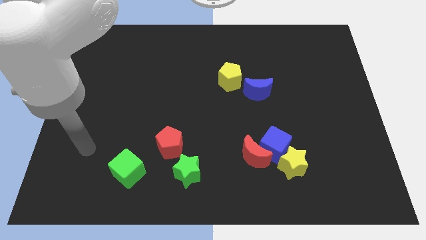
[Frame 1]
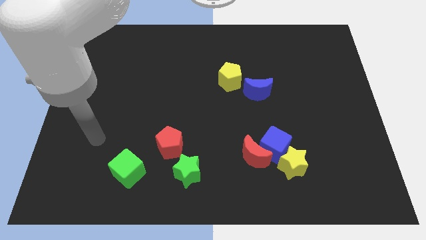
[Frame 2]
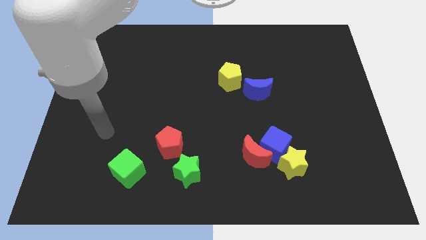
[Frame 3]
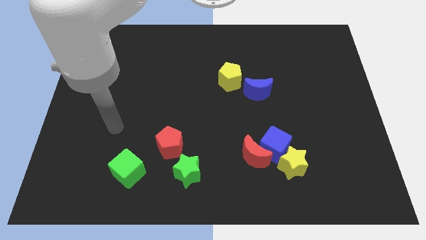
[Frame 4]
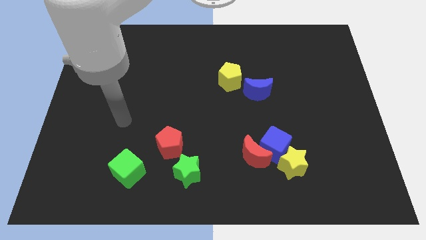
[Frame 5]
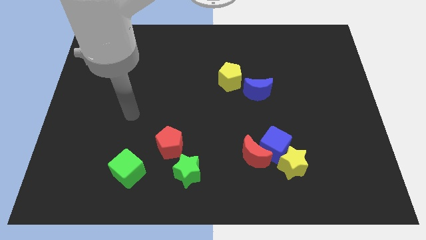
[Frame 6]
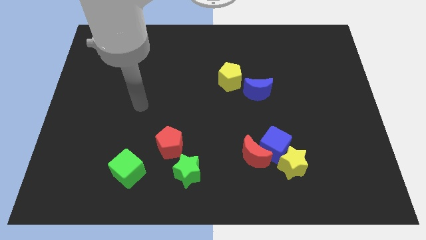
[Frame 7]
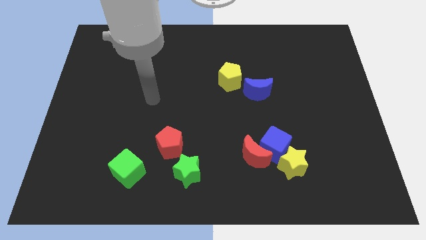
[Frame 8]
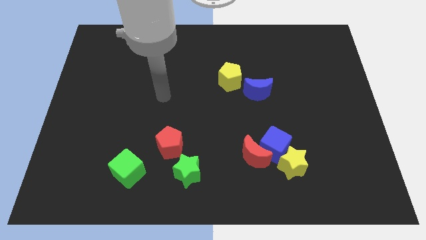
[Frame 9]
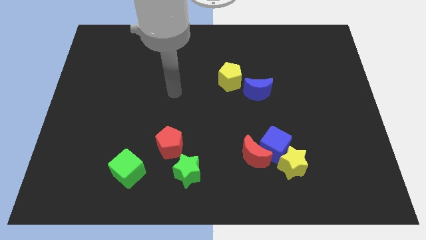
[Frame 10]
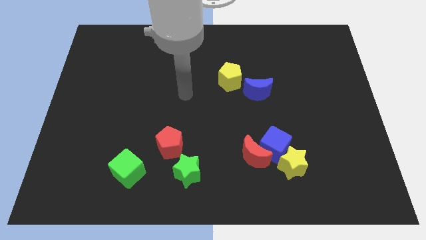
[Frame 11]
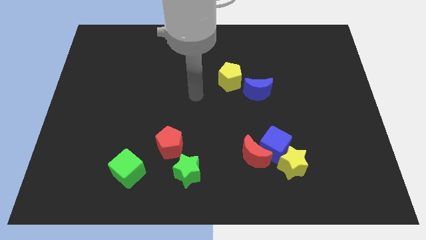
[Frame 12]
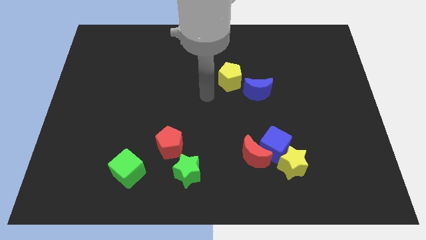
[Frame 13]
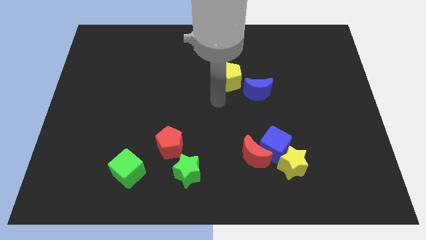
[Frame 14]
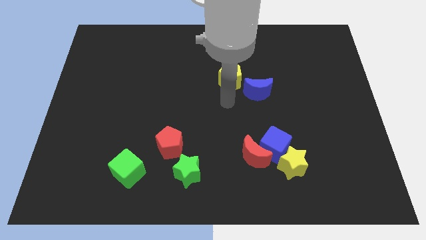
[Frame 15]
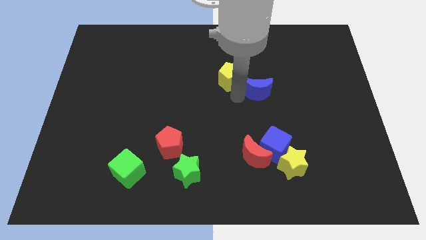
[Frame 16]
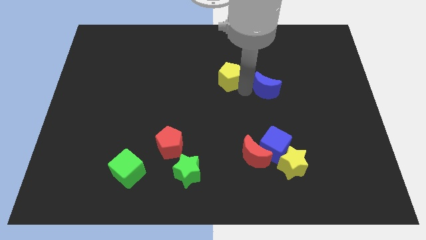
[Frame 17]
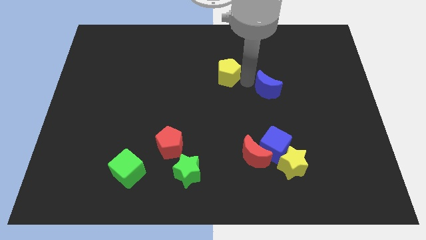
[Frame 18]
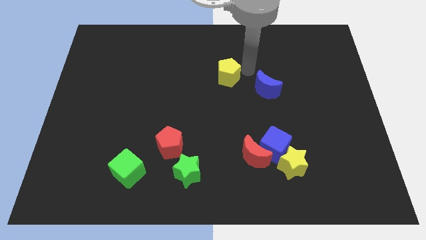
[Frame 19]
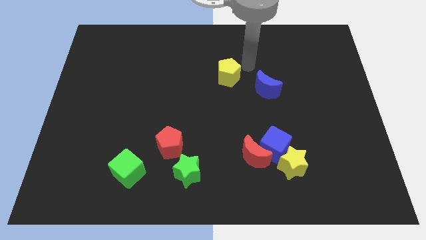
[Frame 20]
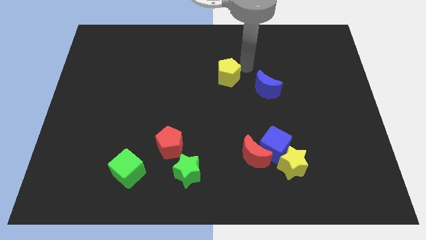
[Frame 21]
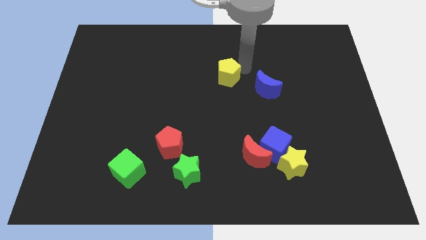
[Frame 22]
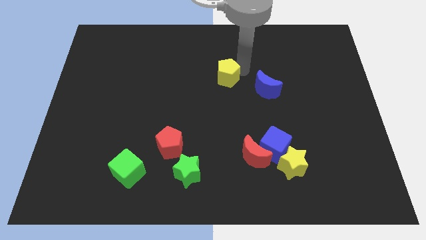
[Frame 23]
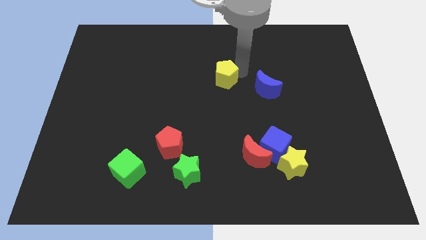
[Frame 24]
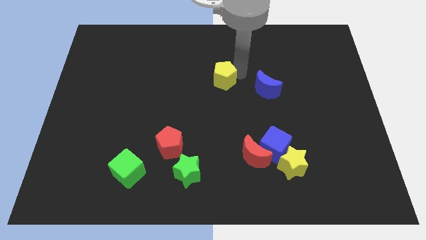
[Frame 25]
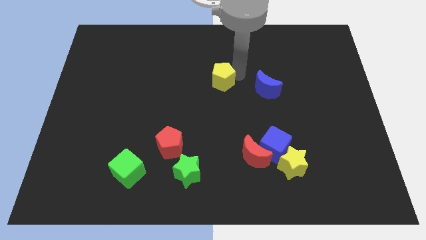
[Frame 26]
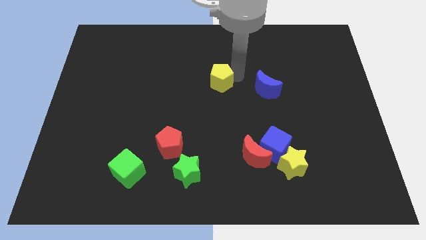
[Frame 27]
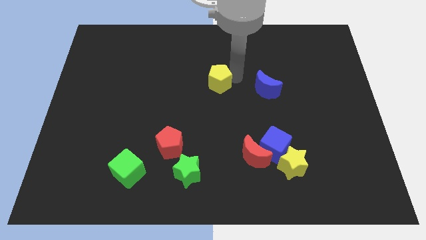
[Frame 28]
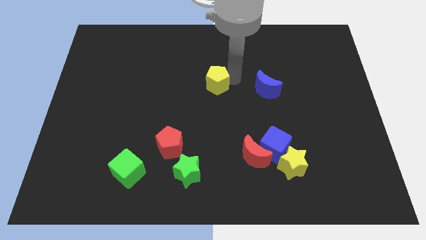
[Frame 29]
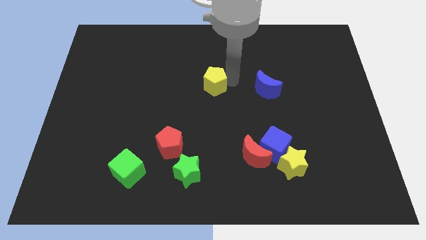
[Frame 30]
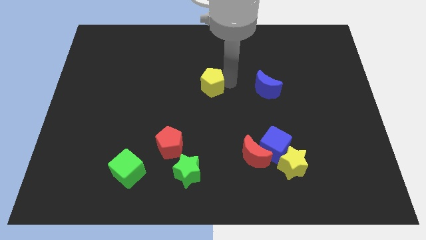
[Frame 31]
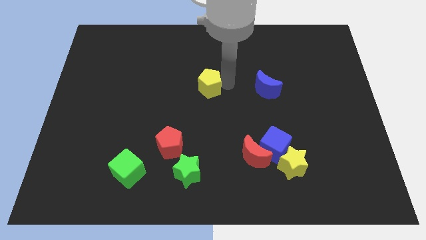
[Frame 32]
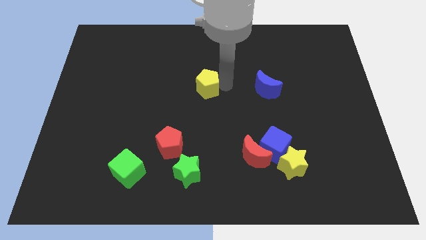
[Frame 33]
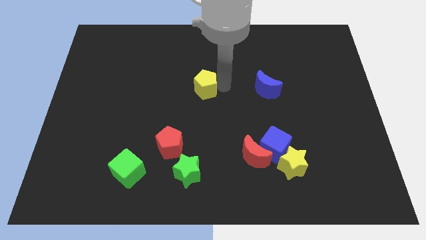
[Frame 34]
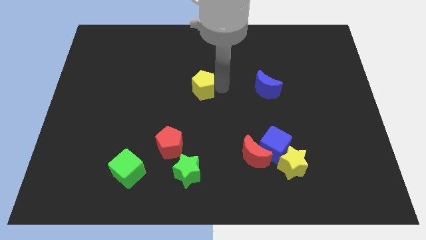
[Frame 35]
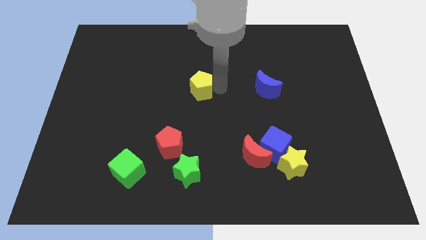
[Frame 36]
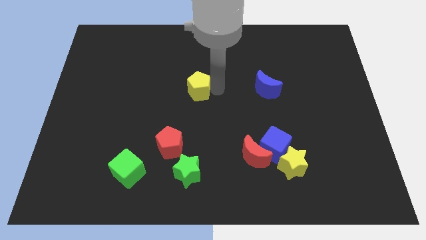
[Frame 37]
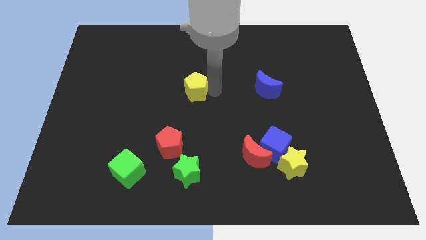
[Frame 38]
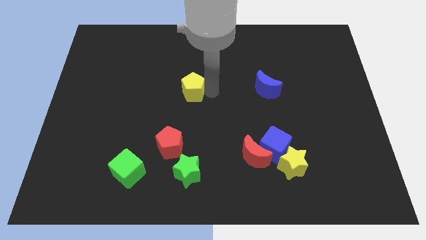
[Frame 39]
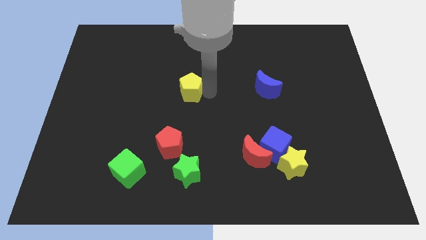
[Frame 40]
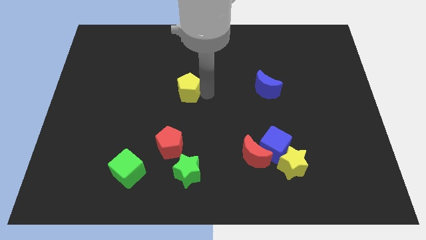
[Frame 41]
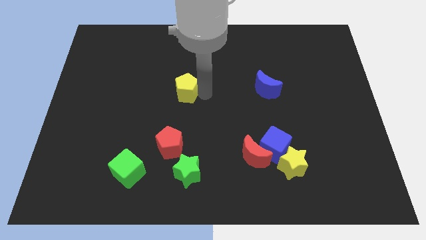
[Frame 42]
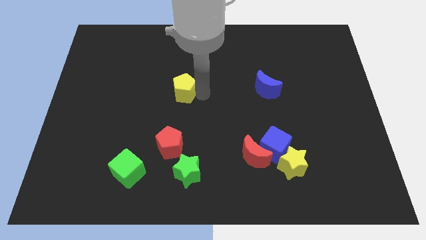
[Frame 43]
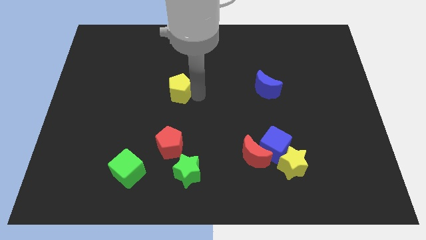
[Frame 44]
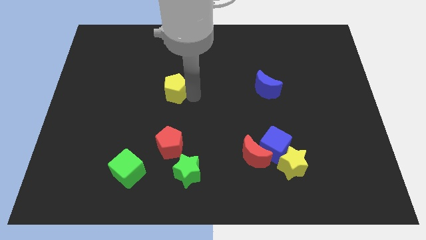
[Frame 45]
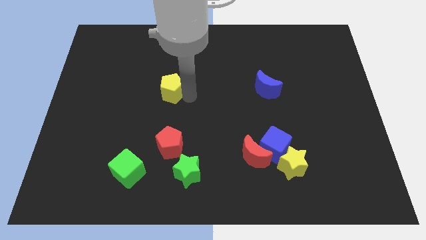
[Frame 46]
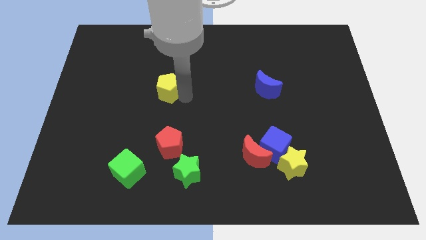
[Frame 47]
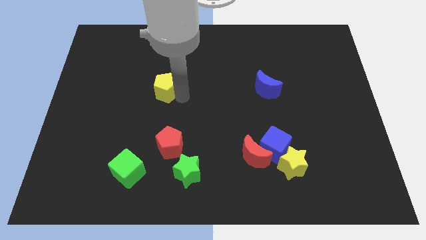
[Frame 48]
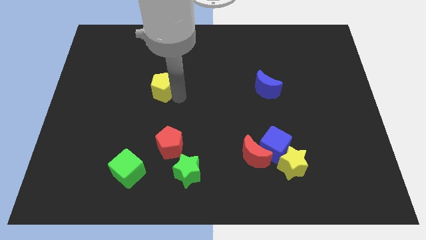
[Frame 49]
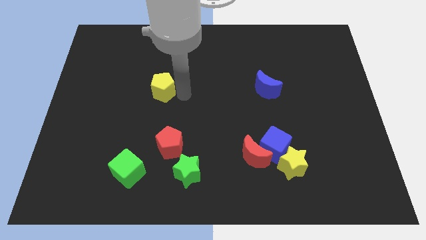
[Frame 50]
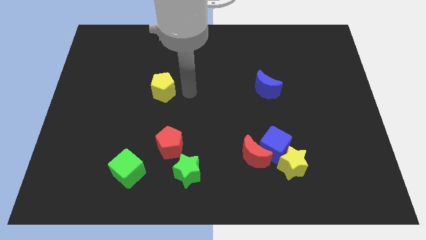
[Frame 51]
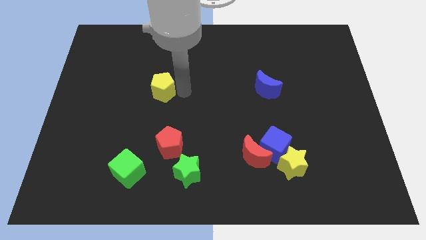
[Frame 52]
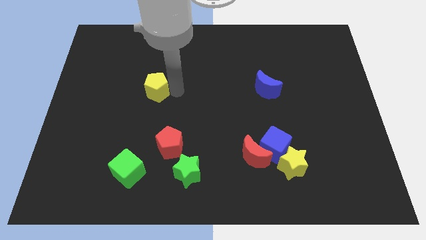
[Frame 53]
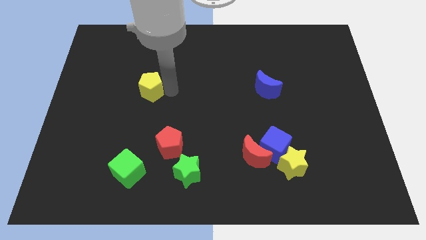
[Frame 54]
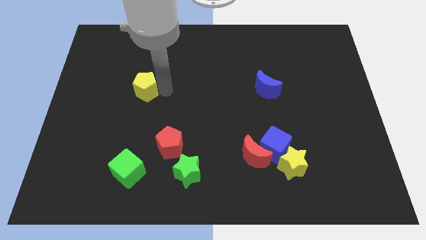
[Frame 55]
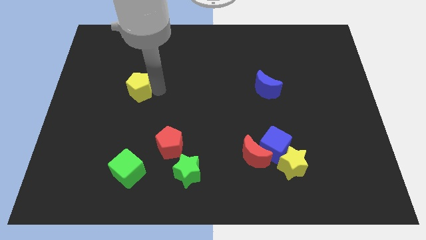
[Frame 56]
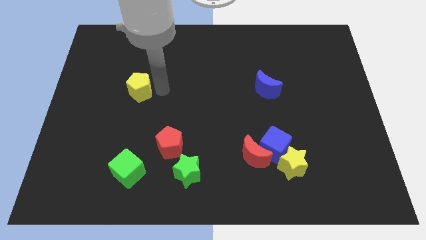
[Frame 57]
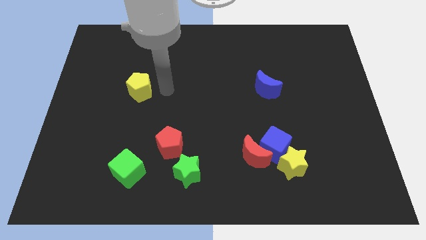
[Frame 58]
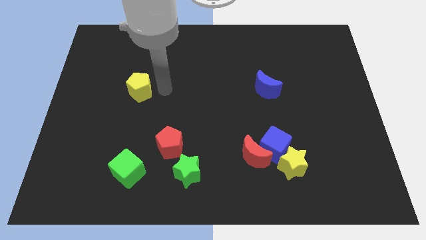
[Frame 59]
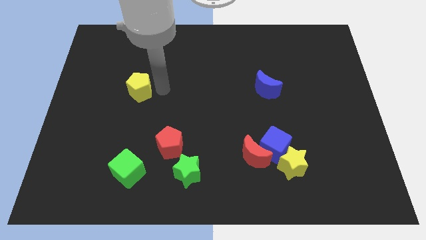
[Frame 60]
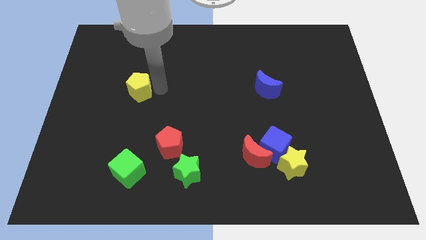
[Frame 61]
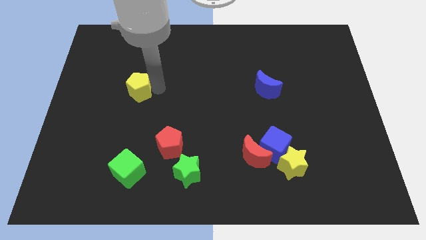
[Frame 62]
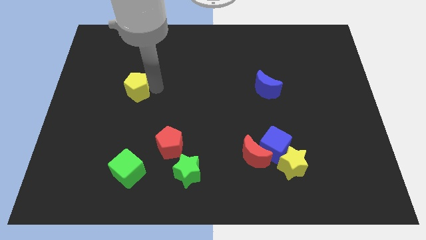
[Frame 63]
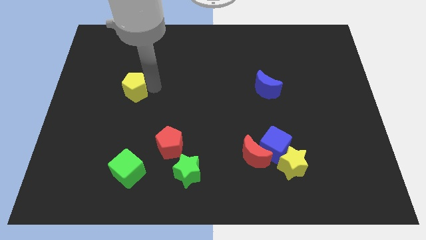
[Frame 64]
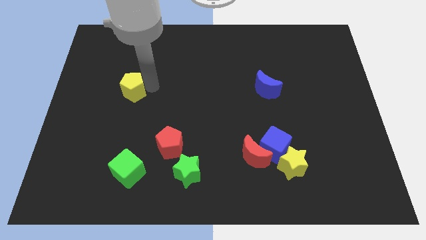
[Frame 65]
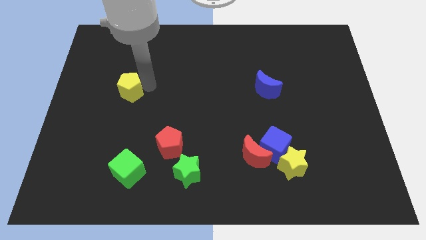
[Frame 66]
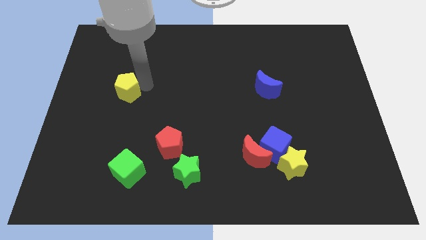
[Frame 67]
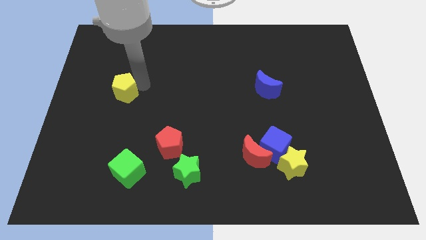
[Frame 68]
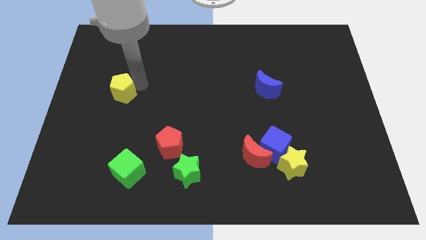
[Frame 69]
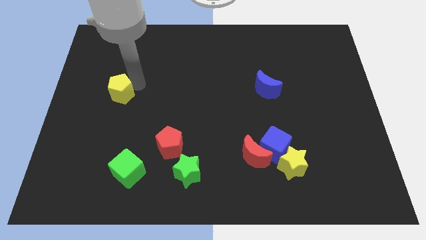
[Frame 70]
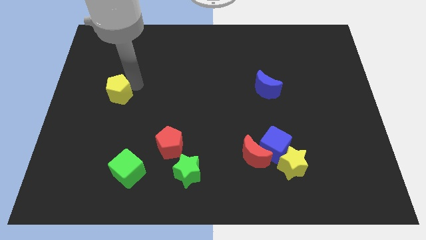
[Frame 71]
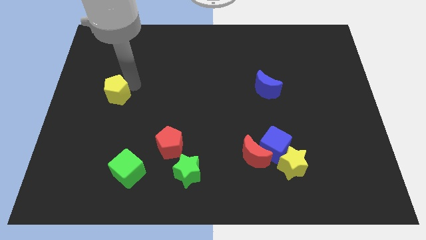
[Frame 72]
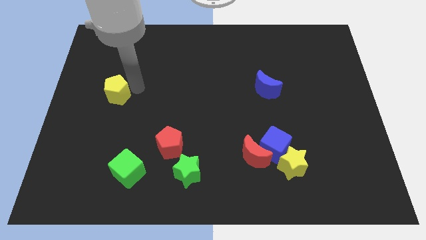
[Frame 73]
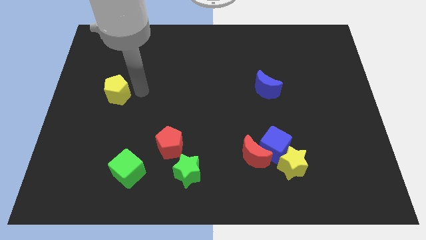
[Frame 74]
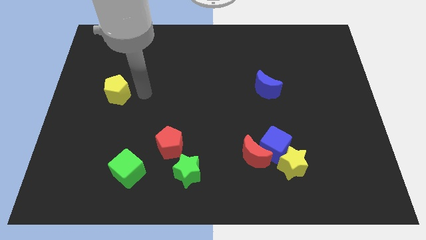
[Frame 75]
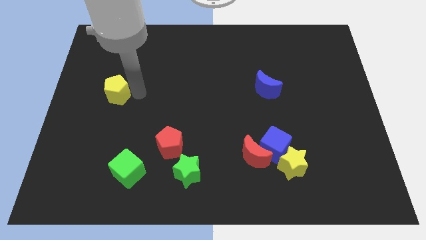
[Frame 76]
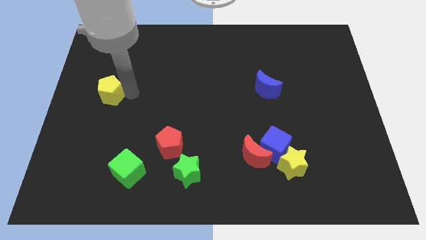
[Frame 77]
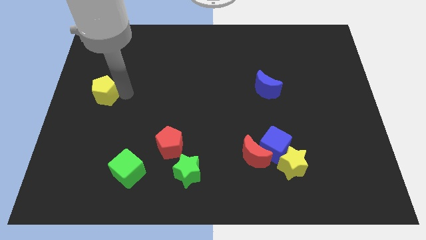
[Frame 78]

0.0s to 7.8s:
put the yellow pentagon to the left side of the board

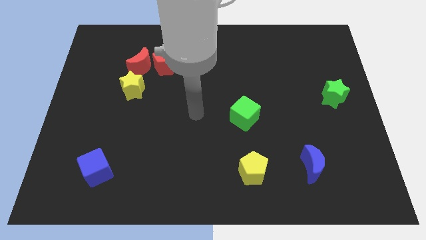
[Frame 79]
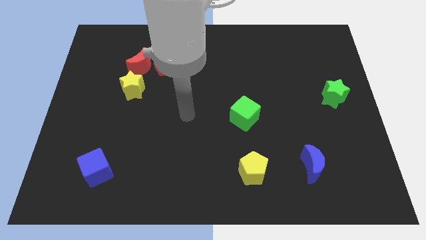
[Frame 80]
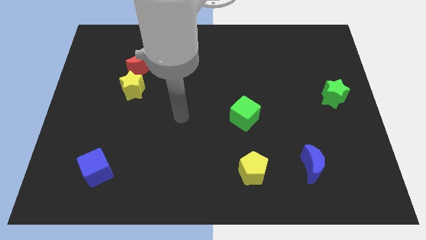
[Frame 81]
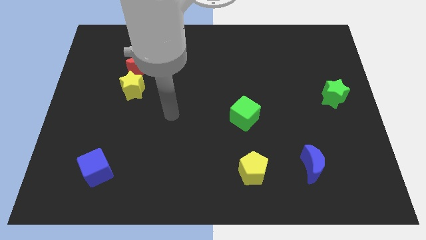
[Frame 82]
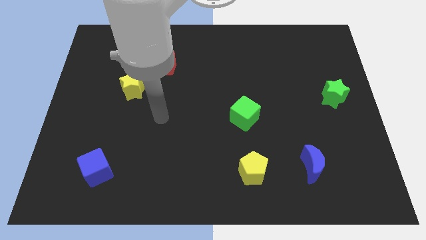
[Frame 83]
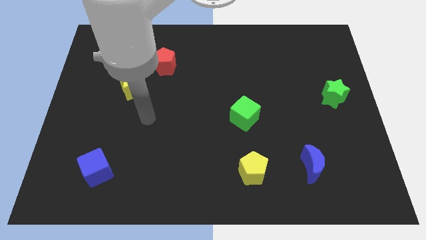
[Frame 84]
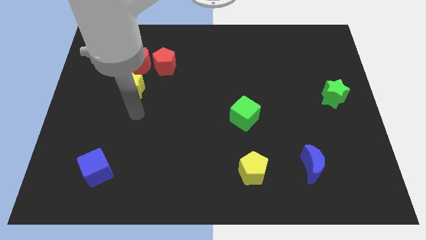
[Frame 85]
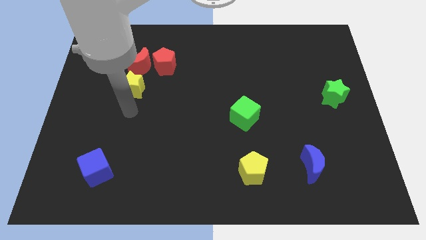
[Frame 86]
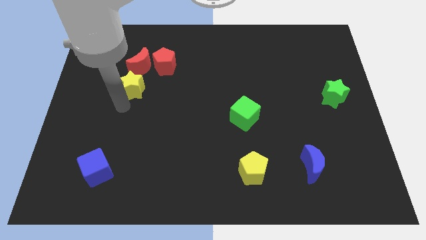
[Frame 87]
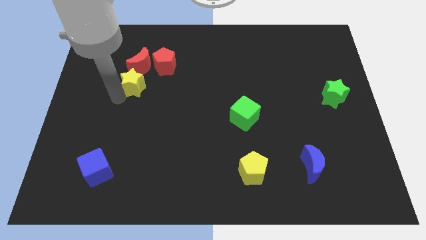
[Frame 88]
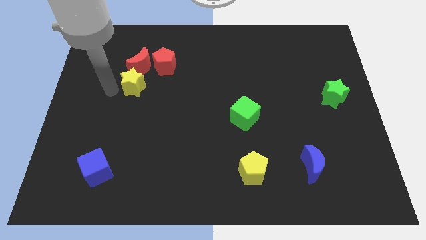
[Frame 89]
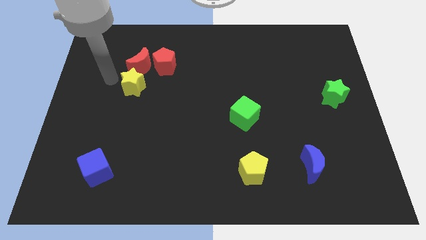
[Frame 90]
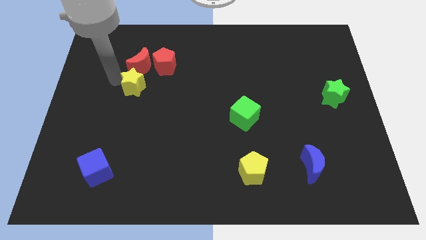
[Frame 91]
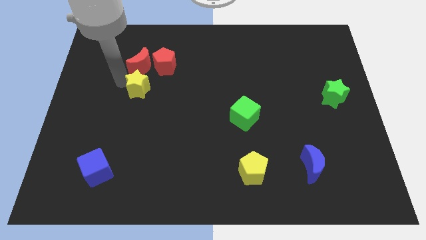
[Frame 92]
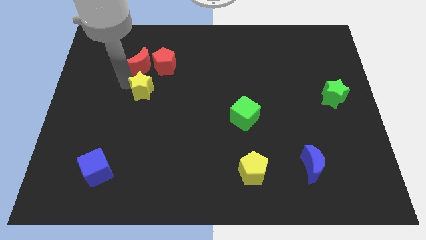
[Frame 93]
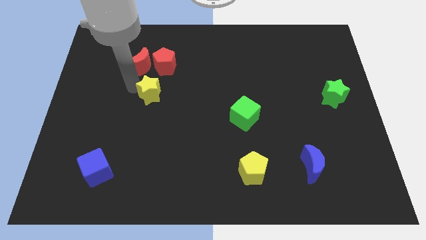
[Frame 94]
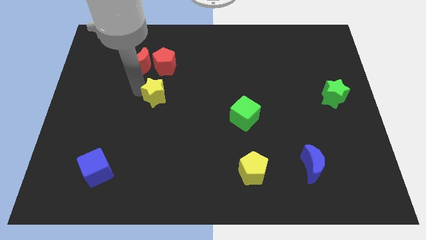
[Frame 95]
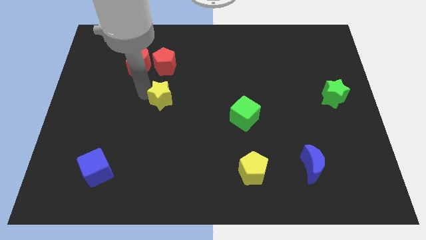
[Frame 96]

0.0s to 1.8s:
slide the yellow star to the middle
